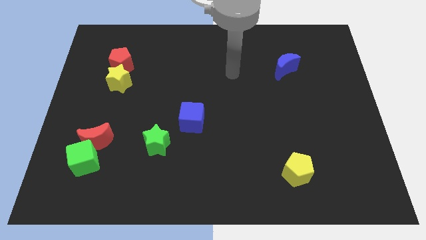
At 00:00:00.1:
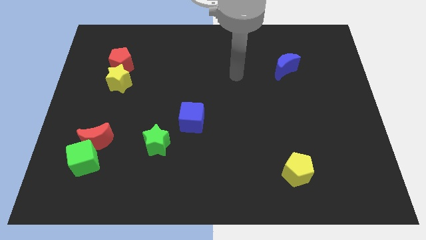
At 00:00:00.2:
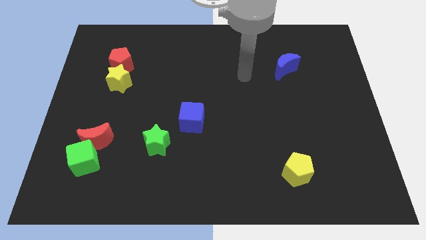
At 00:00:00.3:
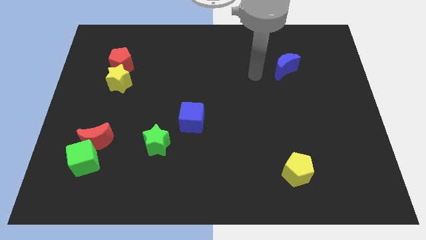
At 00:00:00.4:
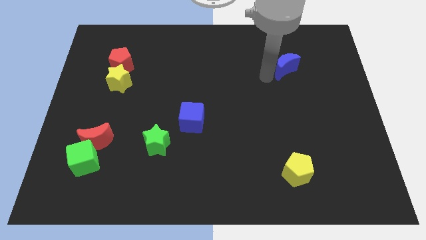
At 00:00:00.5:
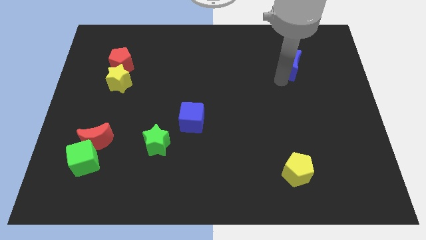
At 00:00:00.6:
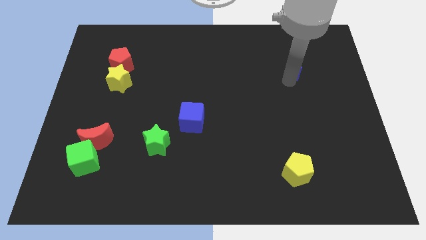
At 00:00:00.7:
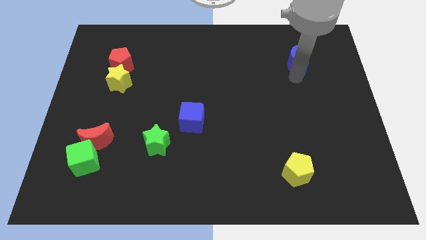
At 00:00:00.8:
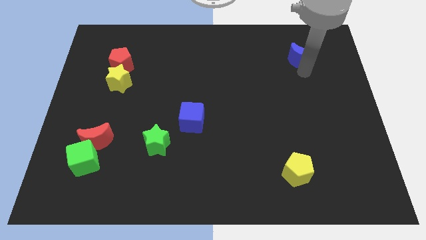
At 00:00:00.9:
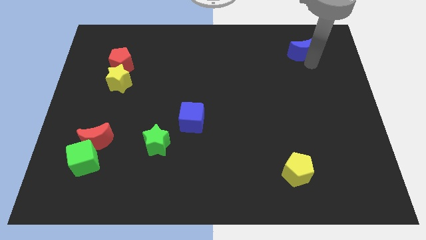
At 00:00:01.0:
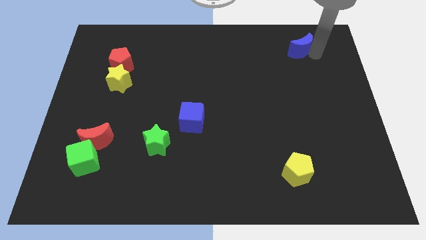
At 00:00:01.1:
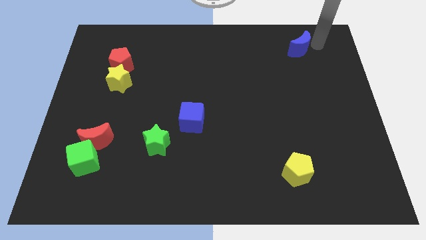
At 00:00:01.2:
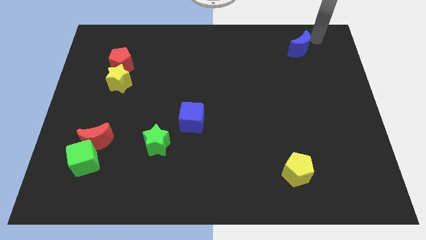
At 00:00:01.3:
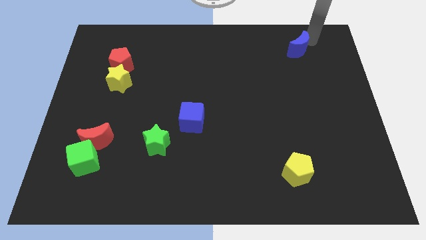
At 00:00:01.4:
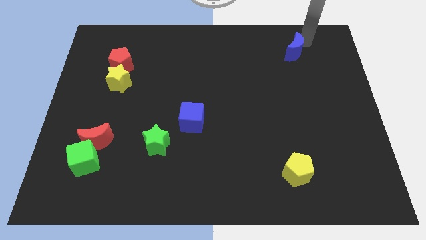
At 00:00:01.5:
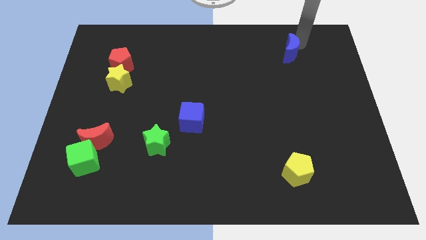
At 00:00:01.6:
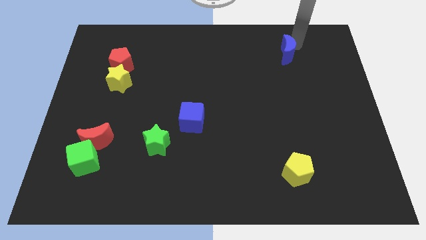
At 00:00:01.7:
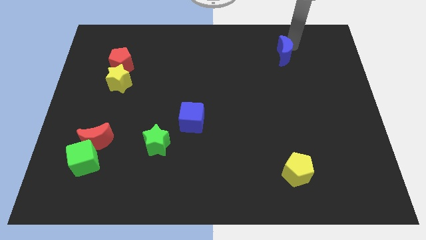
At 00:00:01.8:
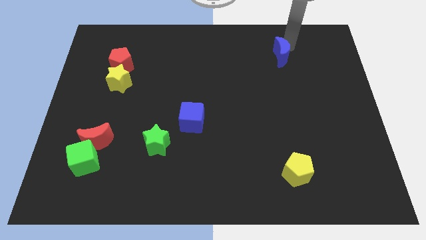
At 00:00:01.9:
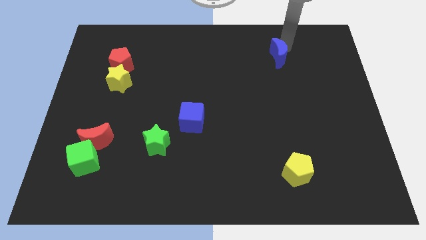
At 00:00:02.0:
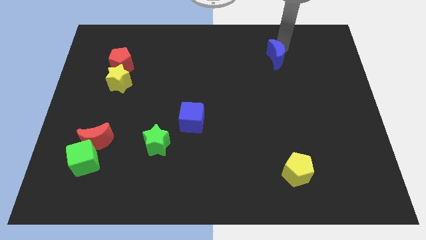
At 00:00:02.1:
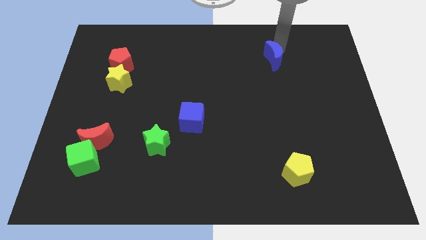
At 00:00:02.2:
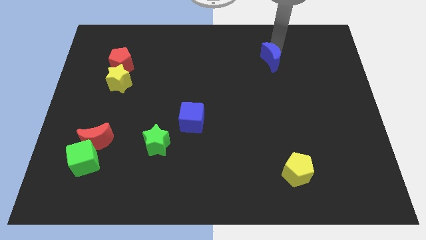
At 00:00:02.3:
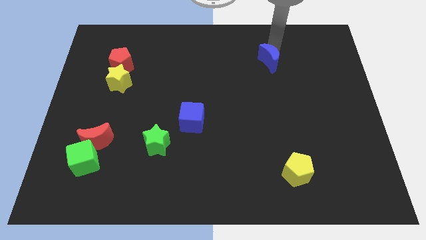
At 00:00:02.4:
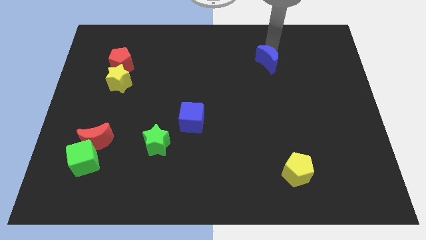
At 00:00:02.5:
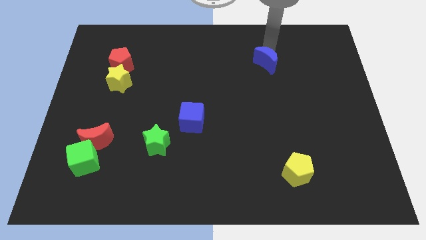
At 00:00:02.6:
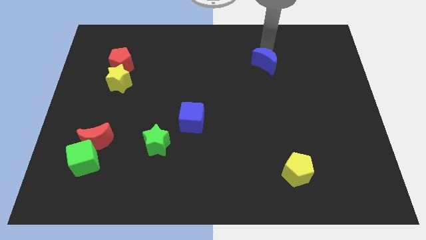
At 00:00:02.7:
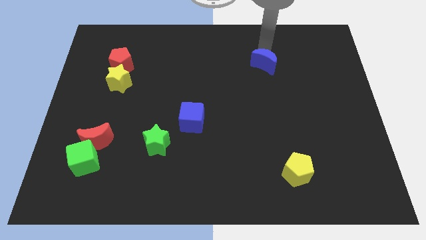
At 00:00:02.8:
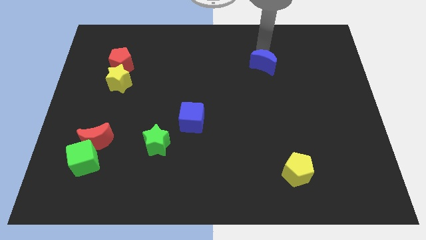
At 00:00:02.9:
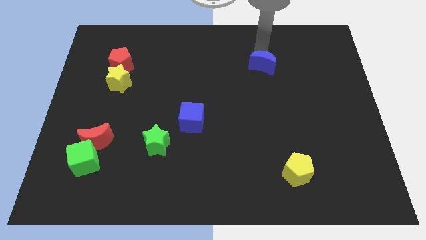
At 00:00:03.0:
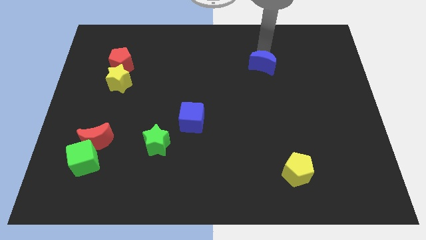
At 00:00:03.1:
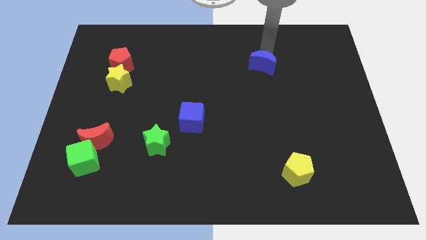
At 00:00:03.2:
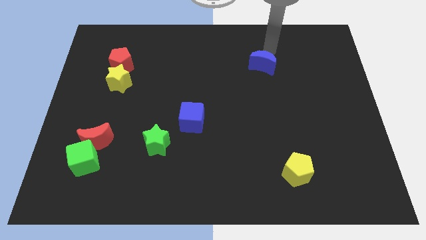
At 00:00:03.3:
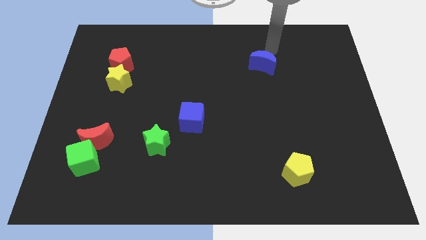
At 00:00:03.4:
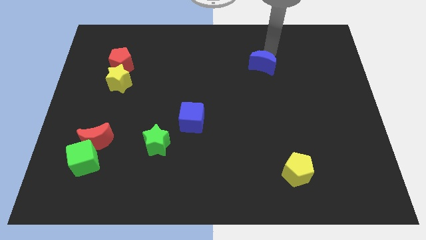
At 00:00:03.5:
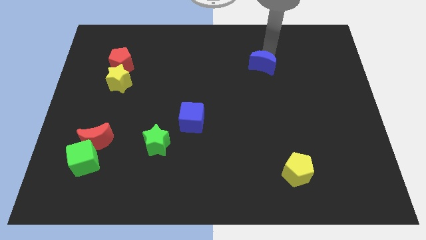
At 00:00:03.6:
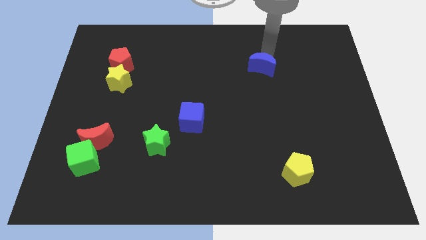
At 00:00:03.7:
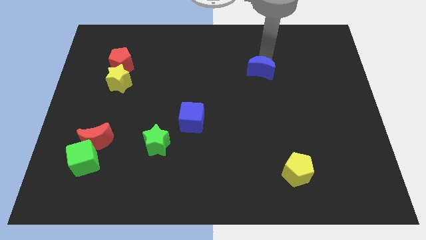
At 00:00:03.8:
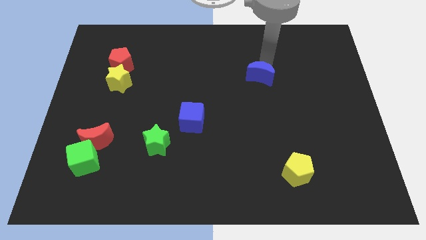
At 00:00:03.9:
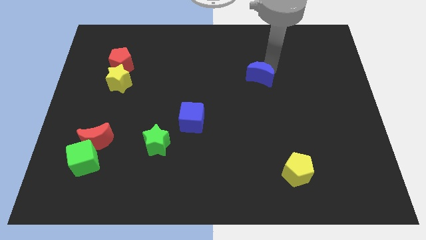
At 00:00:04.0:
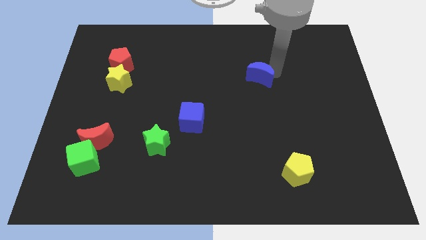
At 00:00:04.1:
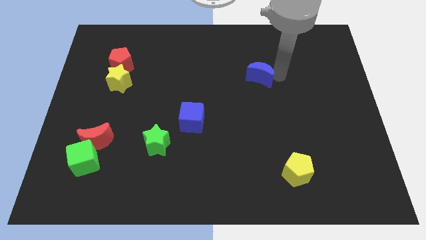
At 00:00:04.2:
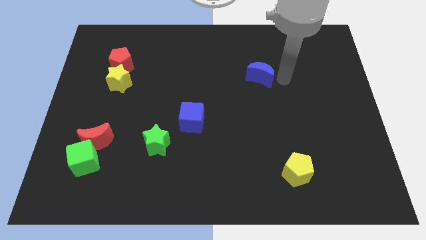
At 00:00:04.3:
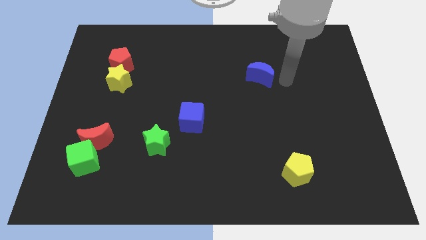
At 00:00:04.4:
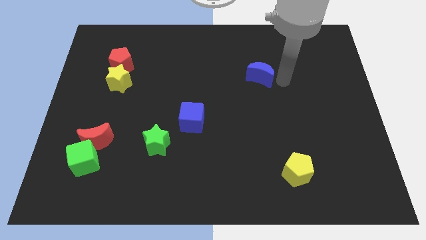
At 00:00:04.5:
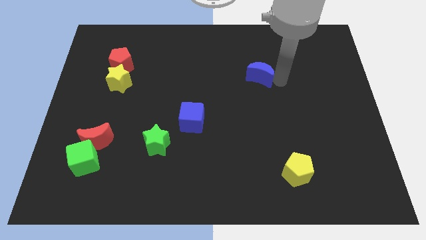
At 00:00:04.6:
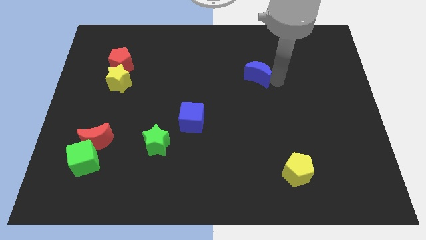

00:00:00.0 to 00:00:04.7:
slide the blue moon to the left slightly

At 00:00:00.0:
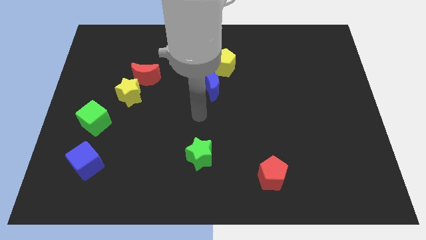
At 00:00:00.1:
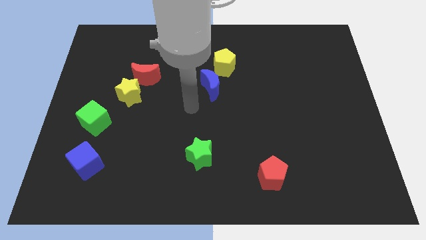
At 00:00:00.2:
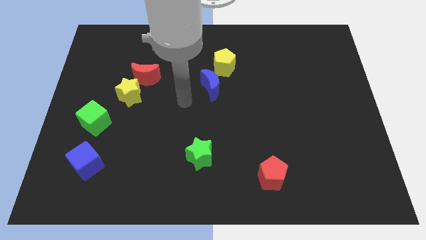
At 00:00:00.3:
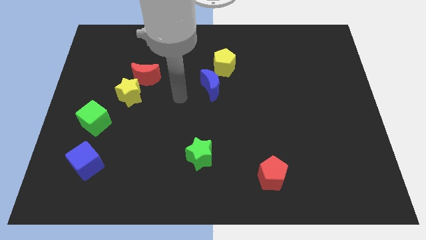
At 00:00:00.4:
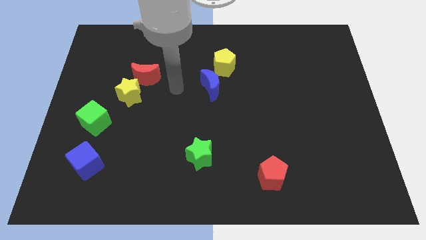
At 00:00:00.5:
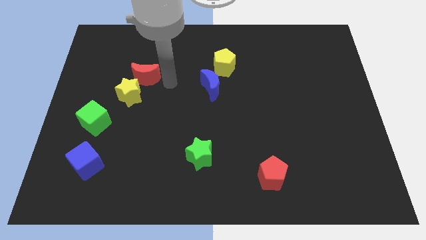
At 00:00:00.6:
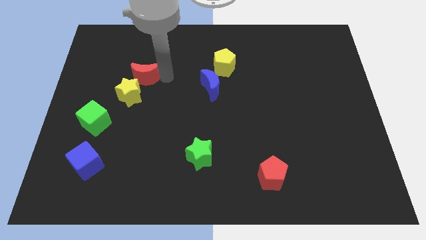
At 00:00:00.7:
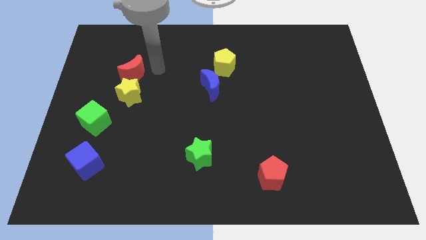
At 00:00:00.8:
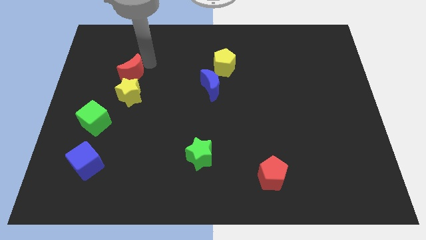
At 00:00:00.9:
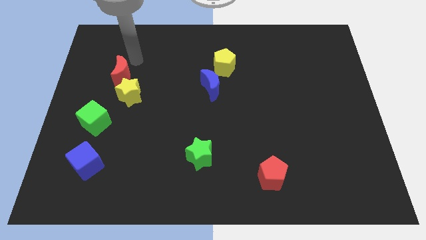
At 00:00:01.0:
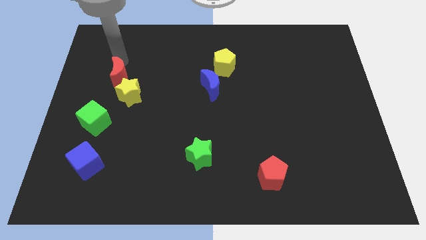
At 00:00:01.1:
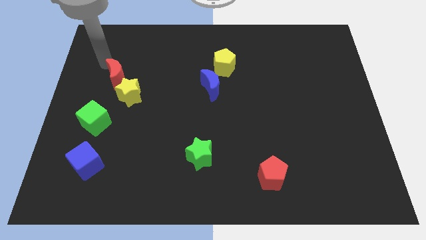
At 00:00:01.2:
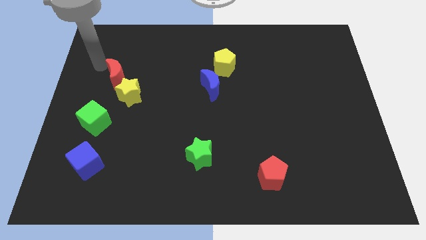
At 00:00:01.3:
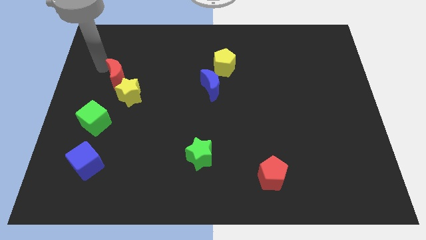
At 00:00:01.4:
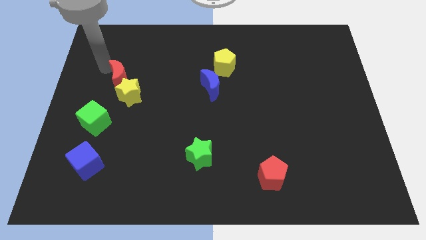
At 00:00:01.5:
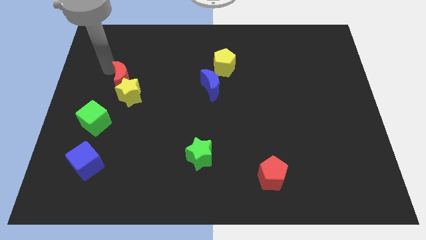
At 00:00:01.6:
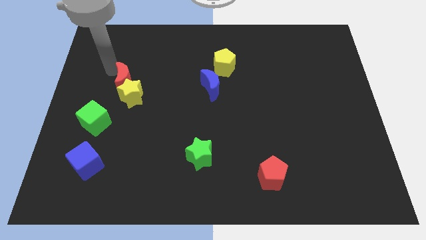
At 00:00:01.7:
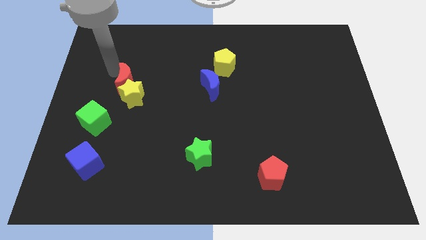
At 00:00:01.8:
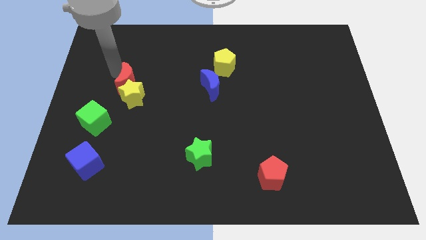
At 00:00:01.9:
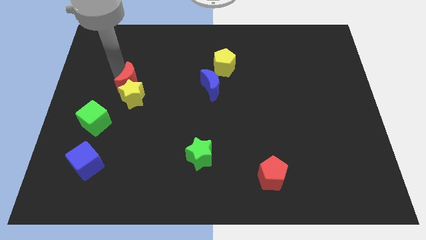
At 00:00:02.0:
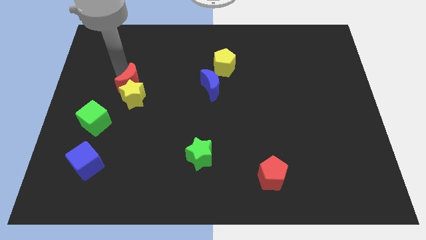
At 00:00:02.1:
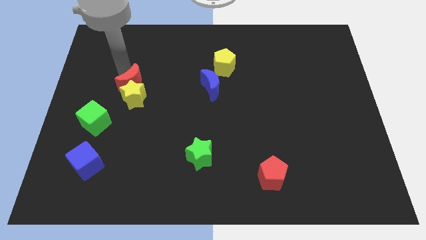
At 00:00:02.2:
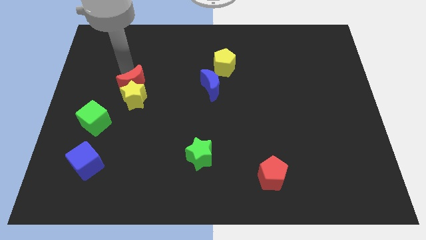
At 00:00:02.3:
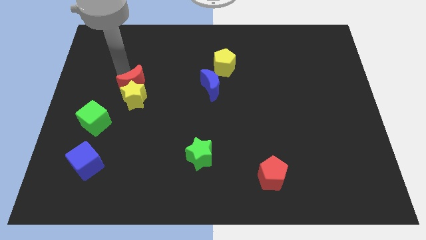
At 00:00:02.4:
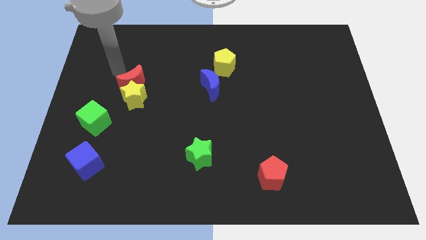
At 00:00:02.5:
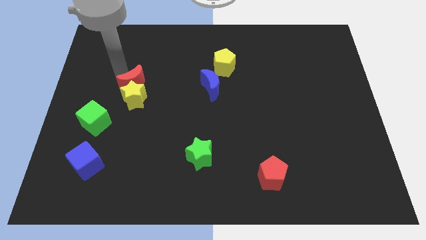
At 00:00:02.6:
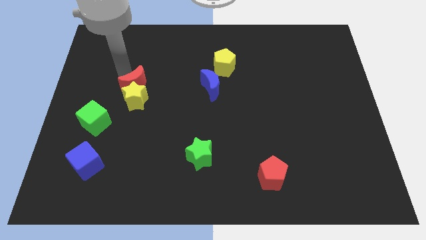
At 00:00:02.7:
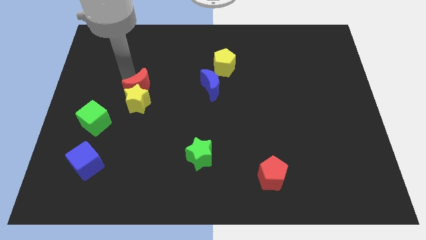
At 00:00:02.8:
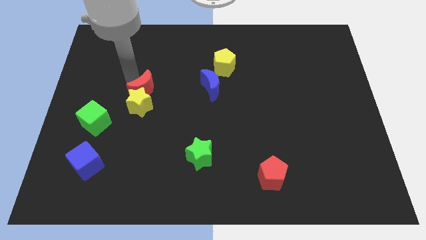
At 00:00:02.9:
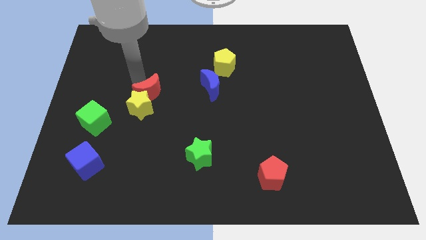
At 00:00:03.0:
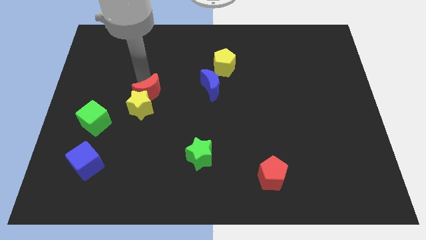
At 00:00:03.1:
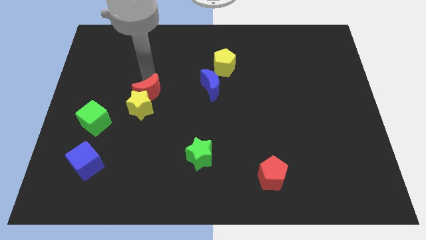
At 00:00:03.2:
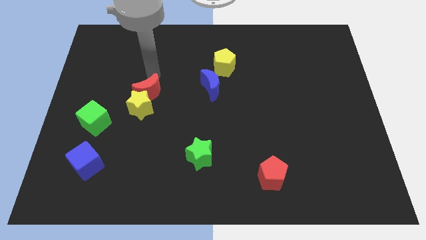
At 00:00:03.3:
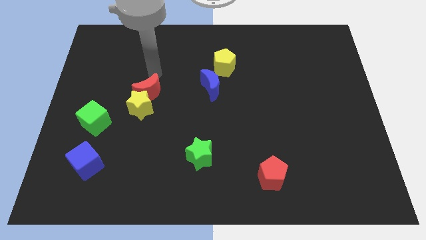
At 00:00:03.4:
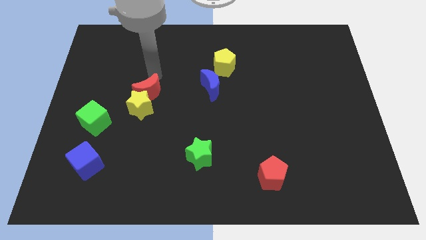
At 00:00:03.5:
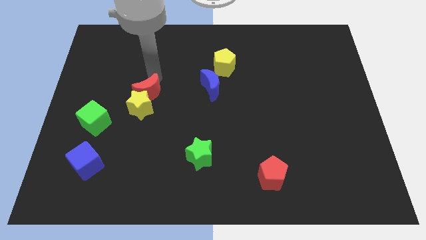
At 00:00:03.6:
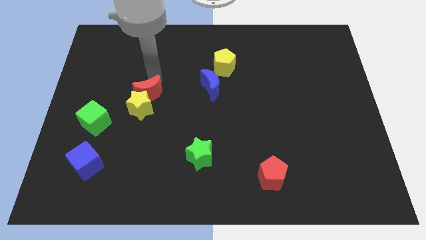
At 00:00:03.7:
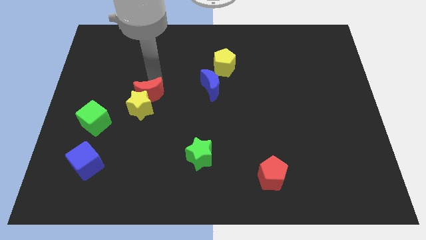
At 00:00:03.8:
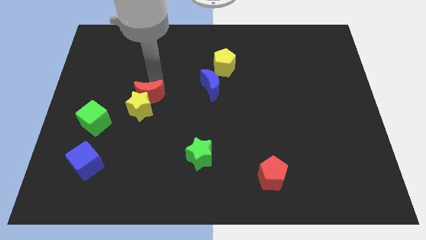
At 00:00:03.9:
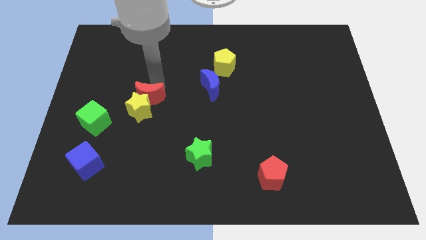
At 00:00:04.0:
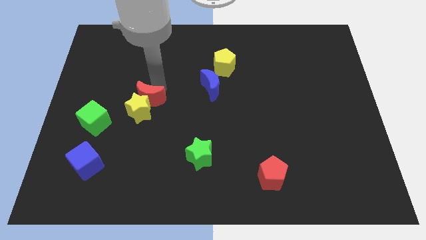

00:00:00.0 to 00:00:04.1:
slightly move the red moon down
